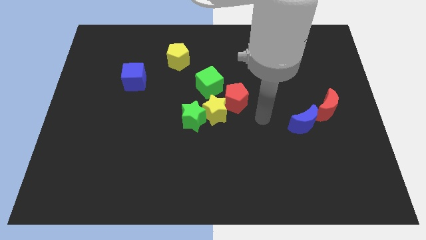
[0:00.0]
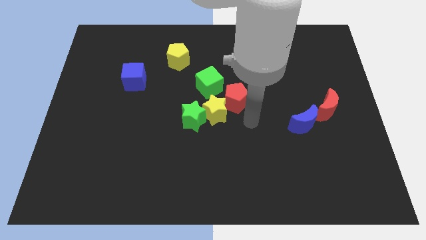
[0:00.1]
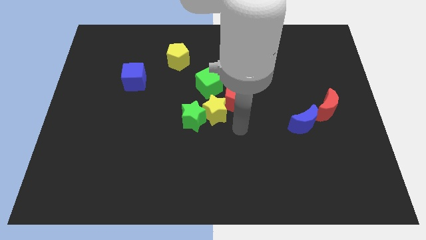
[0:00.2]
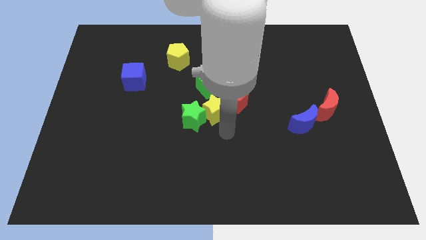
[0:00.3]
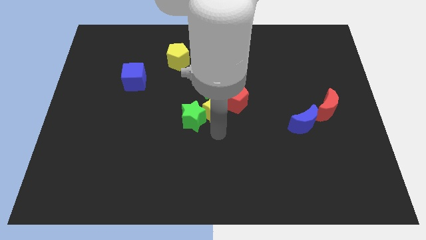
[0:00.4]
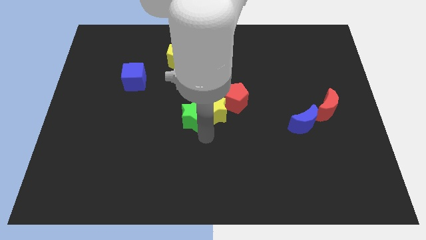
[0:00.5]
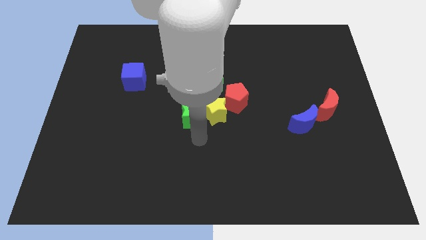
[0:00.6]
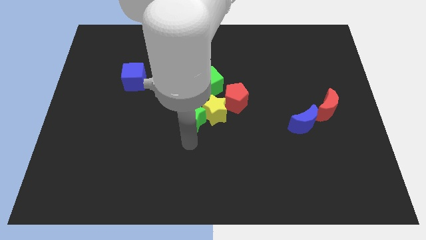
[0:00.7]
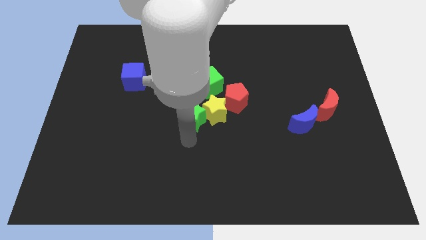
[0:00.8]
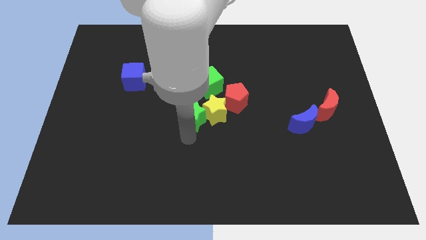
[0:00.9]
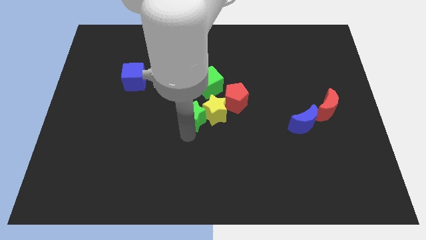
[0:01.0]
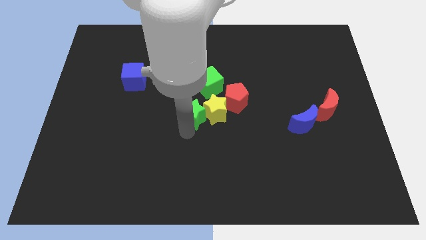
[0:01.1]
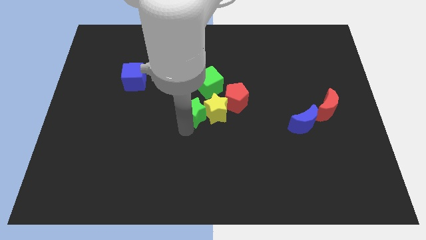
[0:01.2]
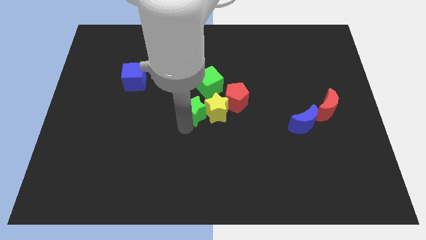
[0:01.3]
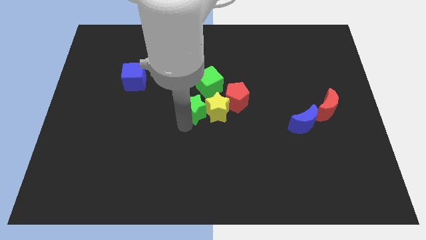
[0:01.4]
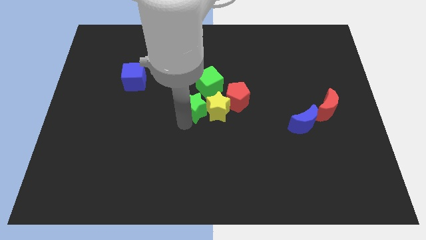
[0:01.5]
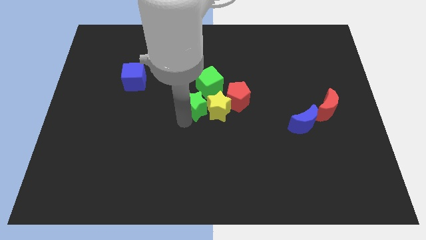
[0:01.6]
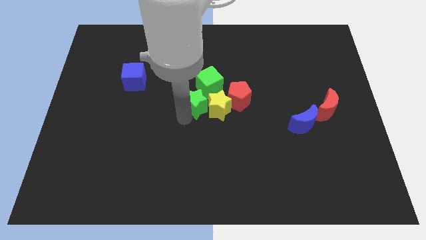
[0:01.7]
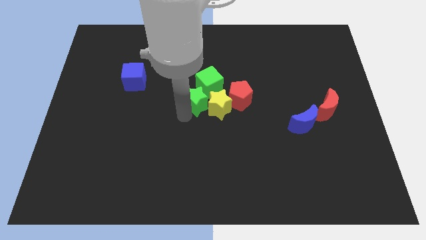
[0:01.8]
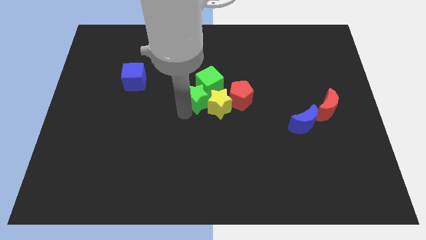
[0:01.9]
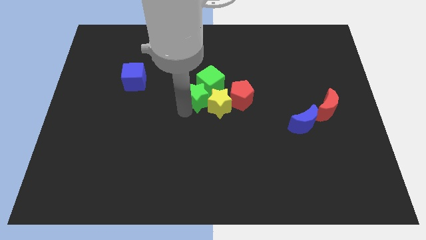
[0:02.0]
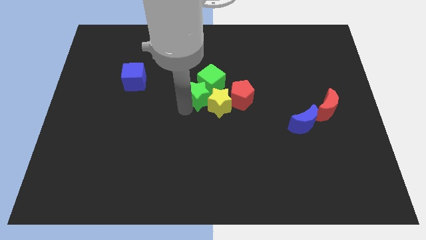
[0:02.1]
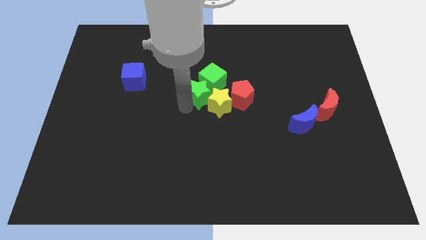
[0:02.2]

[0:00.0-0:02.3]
slightly slide the green star up

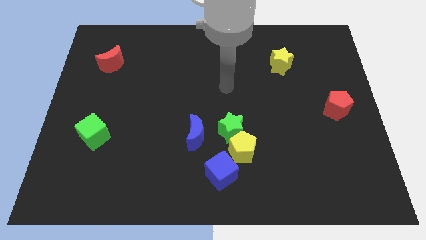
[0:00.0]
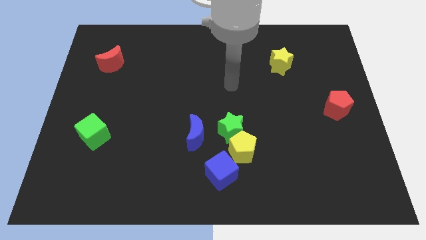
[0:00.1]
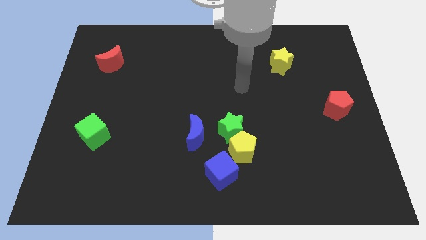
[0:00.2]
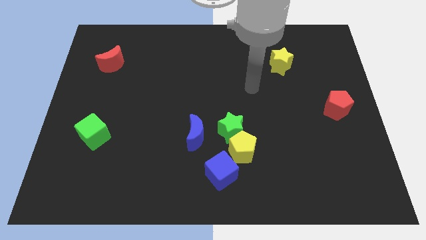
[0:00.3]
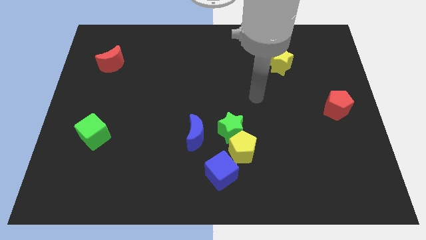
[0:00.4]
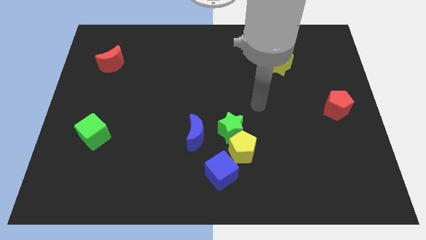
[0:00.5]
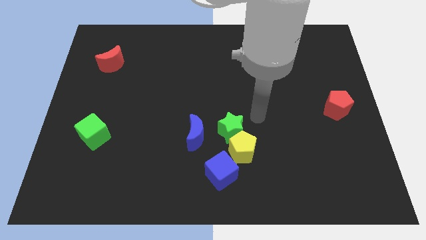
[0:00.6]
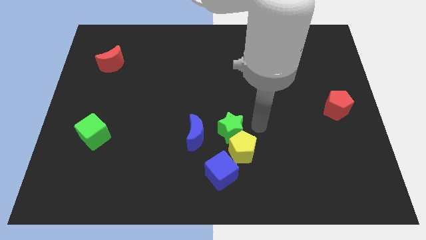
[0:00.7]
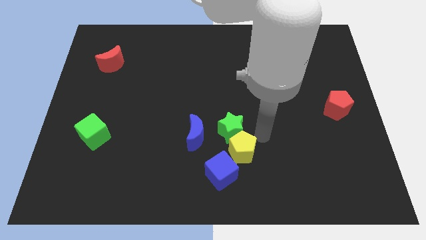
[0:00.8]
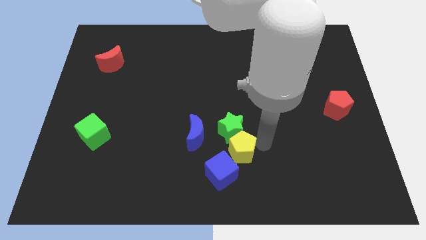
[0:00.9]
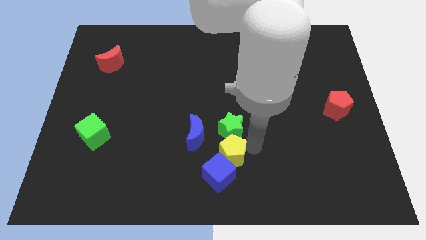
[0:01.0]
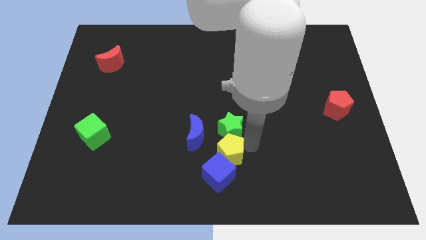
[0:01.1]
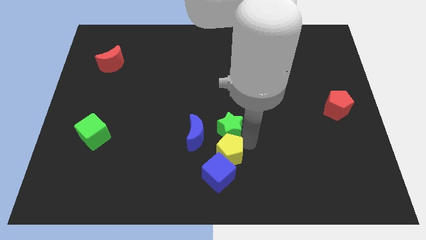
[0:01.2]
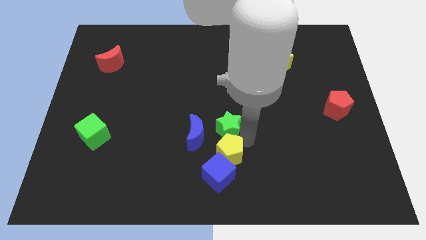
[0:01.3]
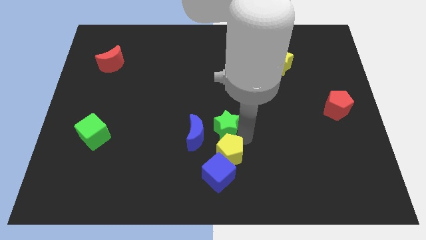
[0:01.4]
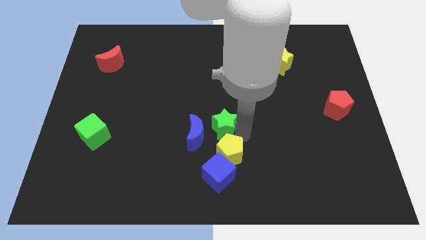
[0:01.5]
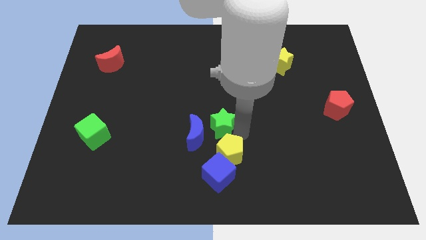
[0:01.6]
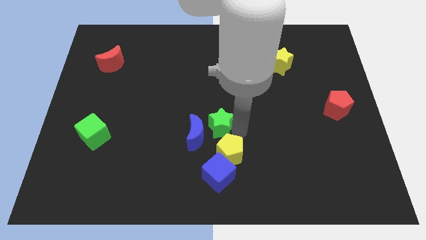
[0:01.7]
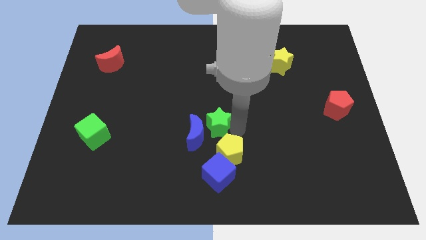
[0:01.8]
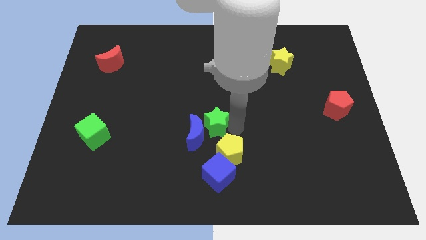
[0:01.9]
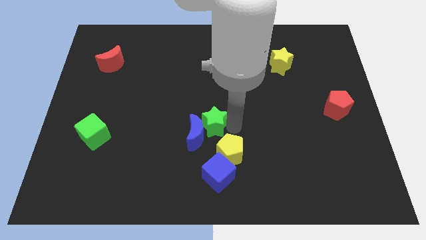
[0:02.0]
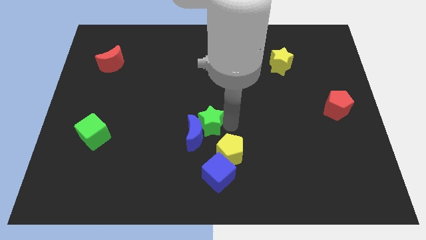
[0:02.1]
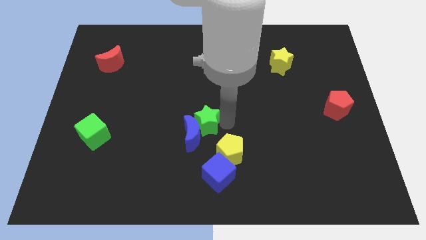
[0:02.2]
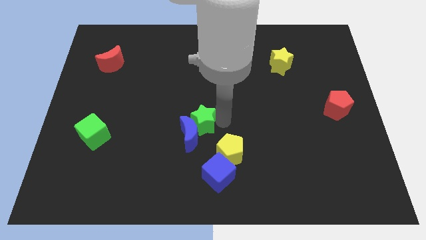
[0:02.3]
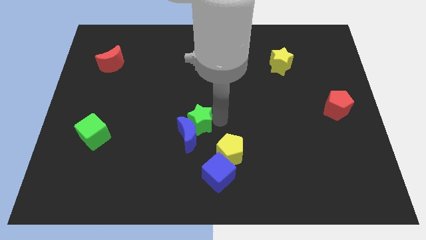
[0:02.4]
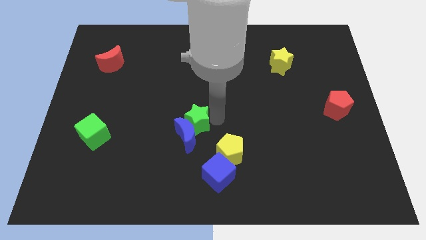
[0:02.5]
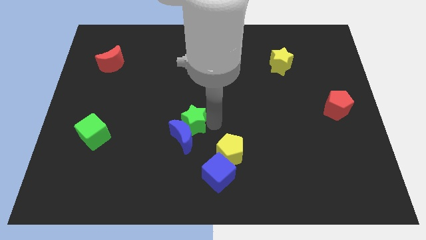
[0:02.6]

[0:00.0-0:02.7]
push the green star upwards and to the left slightly

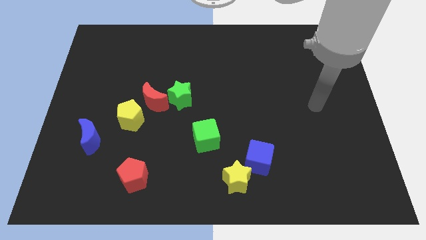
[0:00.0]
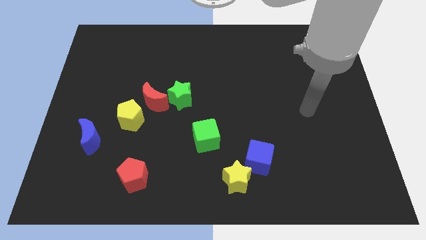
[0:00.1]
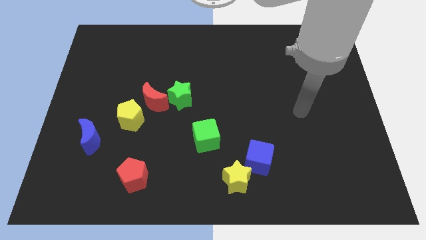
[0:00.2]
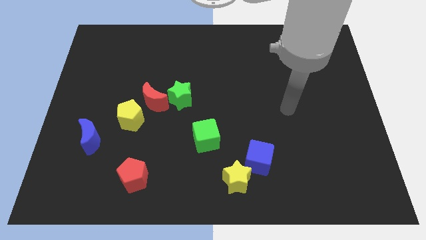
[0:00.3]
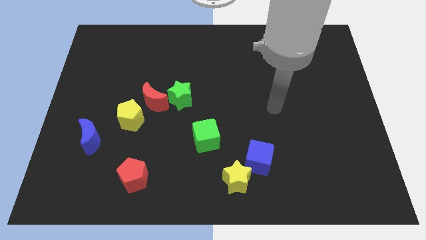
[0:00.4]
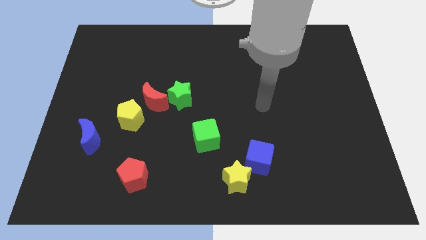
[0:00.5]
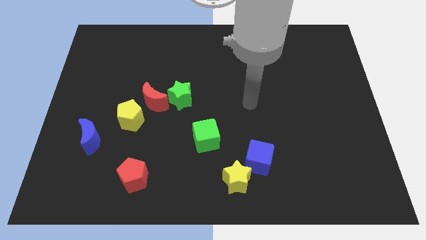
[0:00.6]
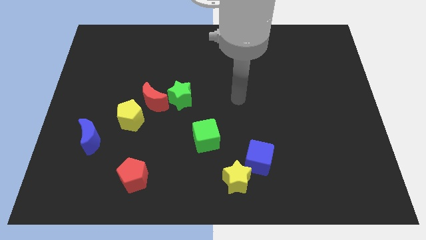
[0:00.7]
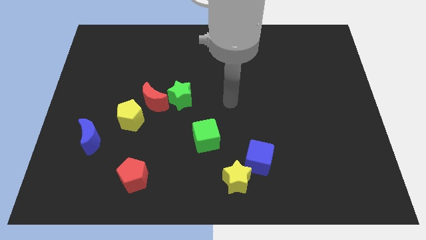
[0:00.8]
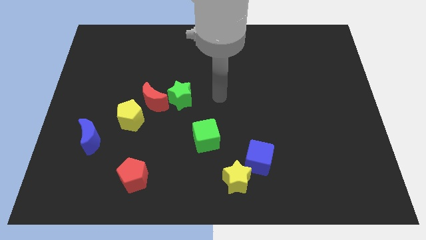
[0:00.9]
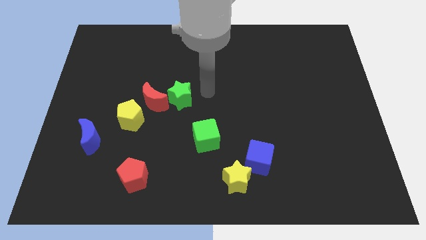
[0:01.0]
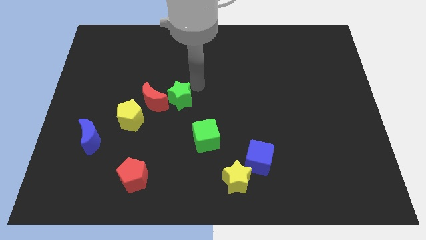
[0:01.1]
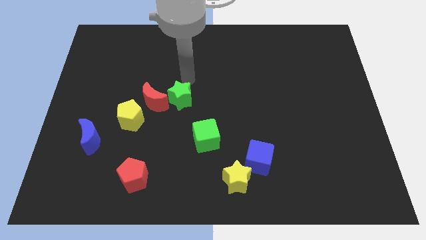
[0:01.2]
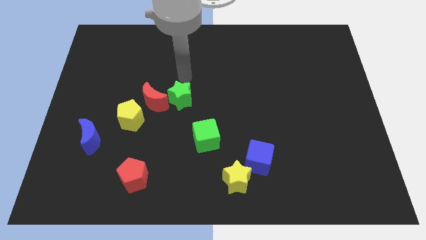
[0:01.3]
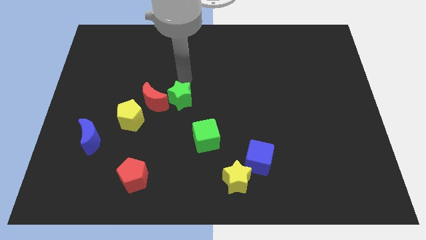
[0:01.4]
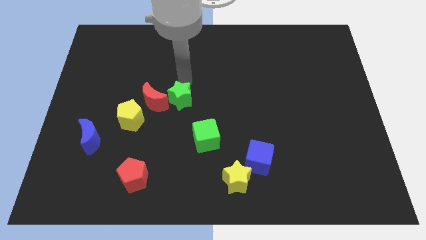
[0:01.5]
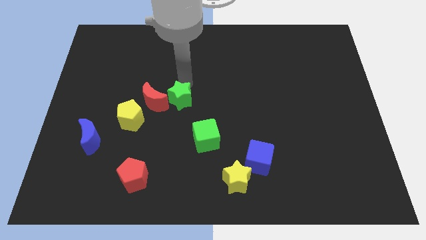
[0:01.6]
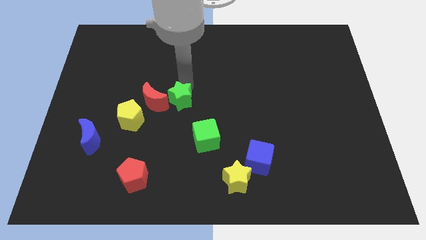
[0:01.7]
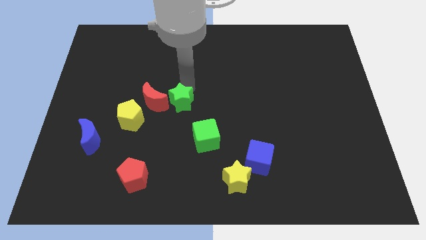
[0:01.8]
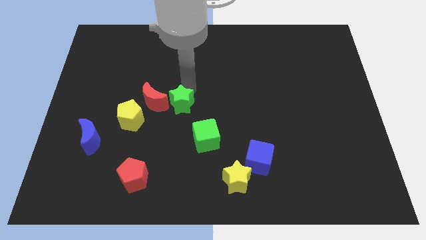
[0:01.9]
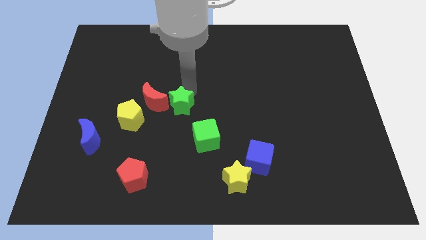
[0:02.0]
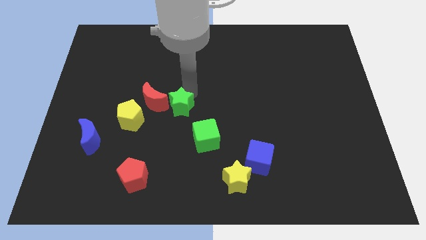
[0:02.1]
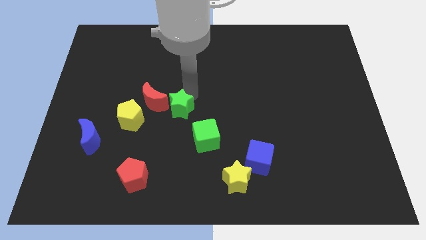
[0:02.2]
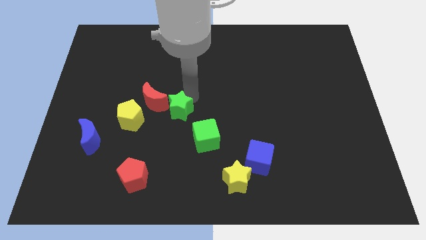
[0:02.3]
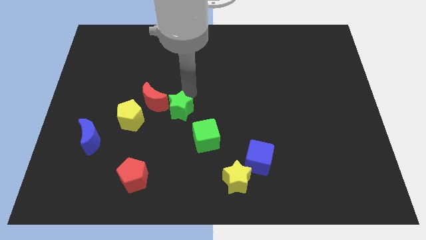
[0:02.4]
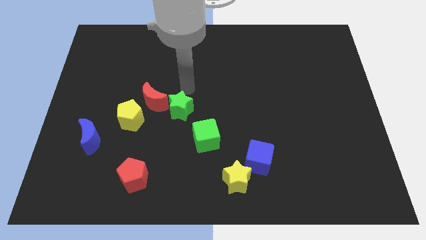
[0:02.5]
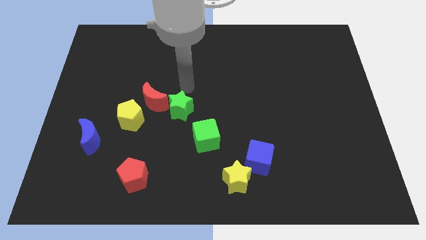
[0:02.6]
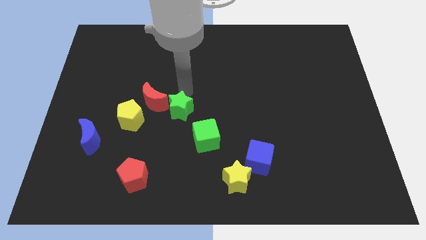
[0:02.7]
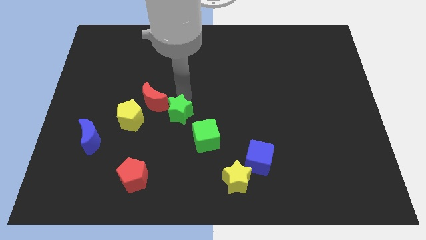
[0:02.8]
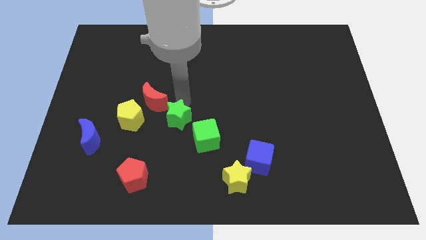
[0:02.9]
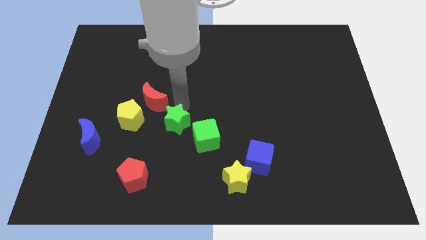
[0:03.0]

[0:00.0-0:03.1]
push the green star slightly downwards
